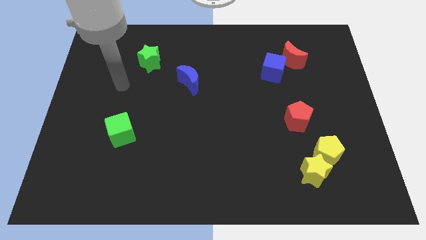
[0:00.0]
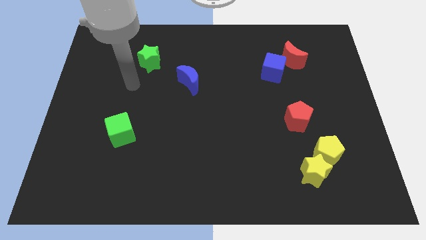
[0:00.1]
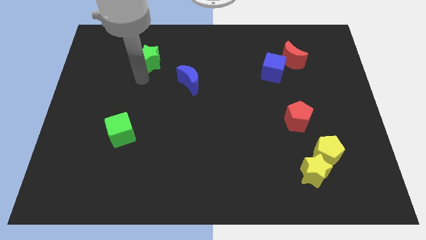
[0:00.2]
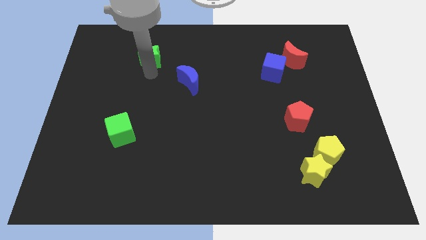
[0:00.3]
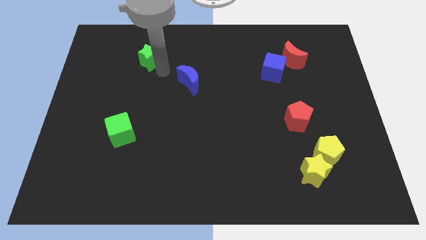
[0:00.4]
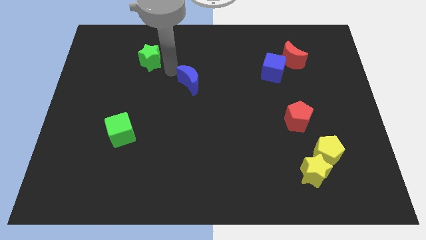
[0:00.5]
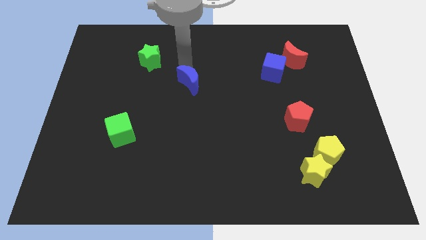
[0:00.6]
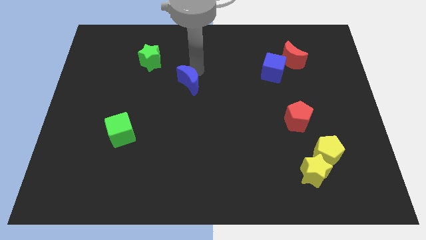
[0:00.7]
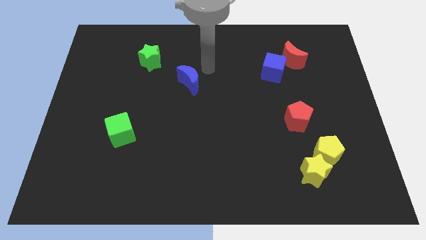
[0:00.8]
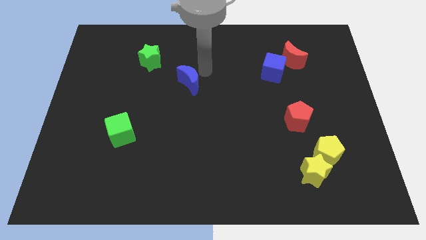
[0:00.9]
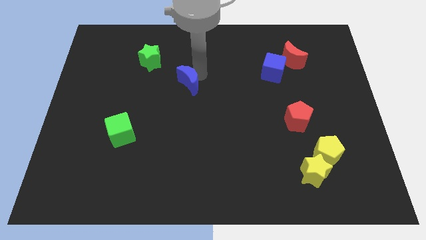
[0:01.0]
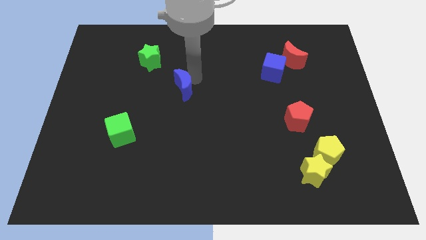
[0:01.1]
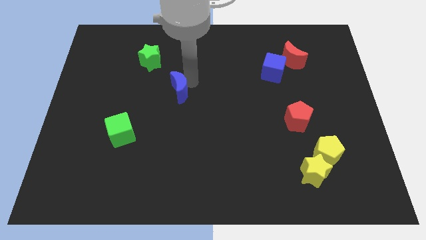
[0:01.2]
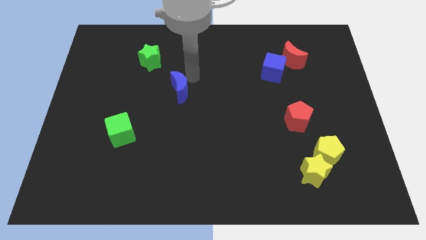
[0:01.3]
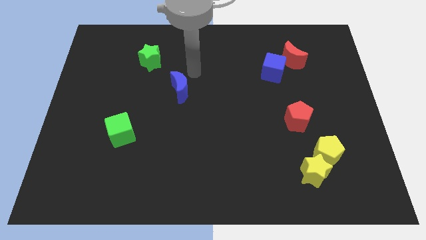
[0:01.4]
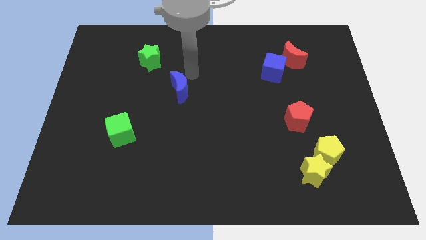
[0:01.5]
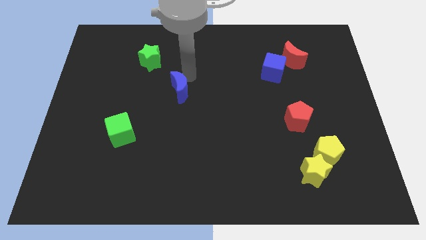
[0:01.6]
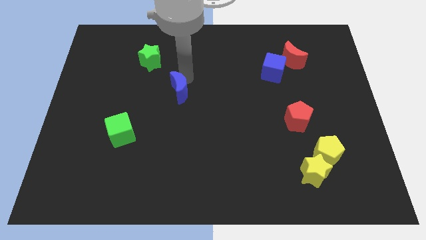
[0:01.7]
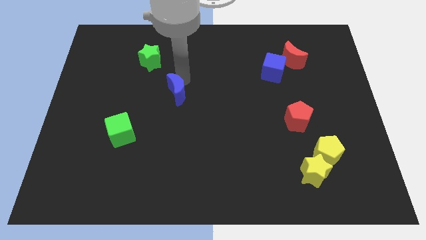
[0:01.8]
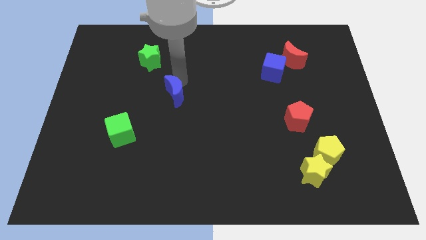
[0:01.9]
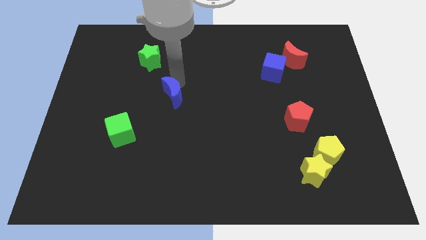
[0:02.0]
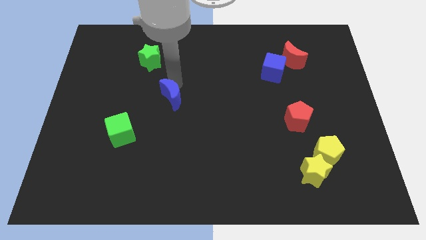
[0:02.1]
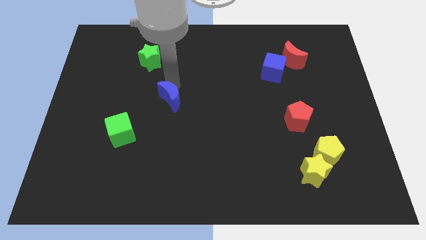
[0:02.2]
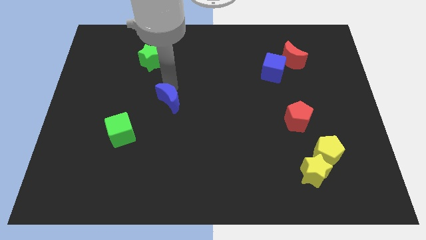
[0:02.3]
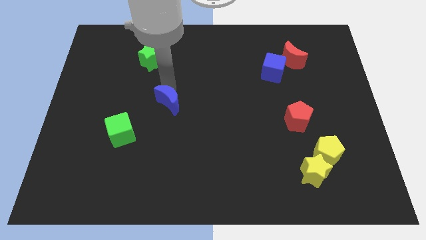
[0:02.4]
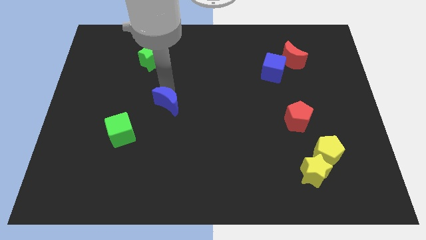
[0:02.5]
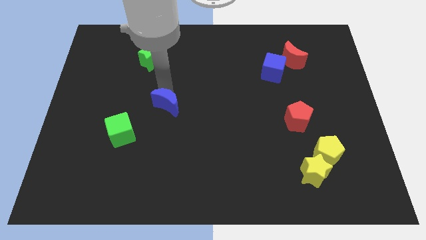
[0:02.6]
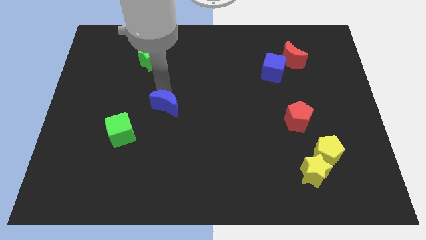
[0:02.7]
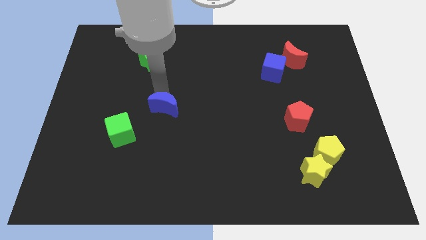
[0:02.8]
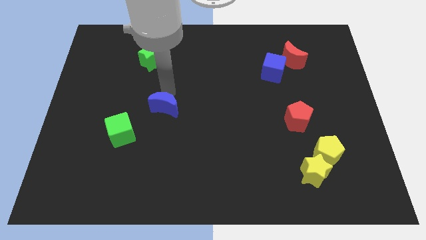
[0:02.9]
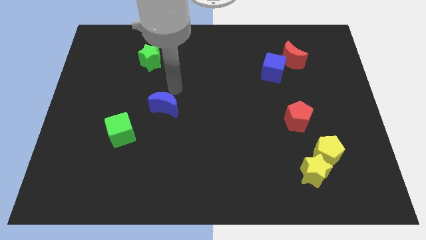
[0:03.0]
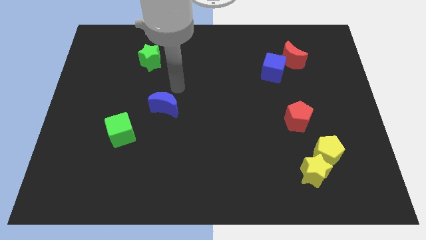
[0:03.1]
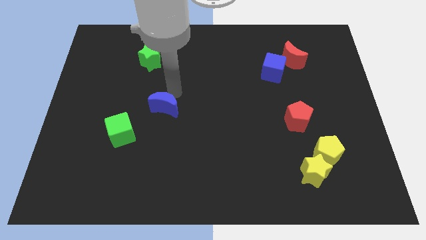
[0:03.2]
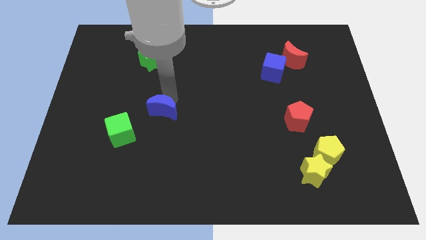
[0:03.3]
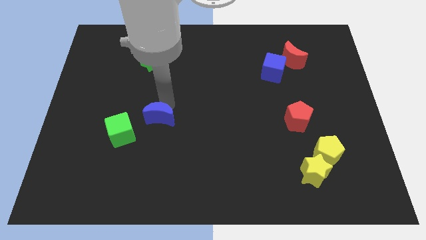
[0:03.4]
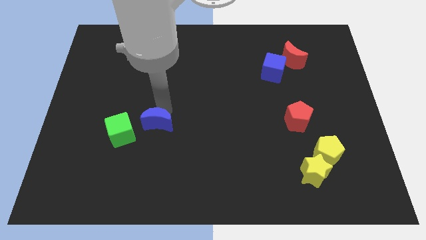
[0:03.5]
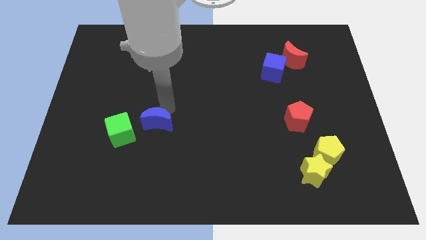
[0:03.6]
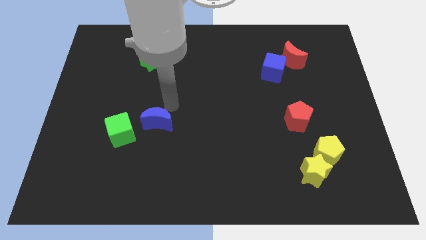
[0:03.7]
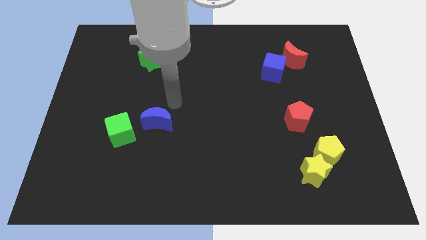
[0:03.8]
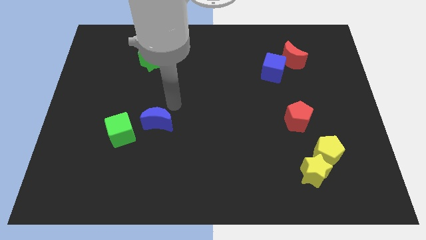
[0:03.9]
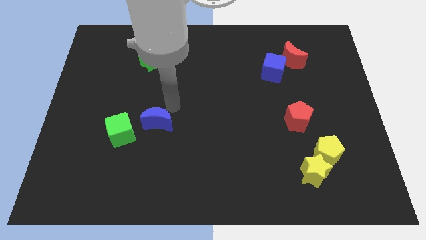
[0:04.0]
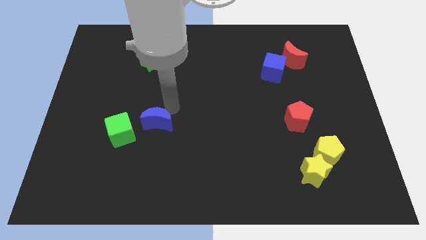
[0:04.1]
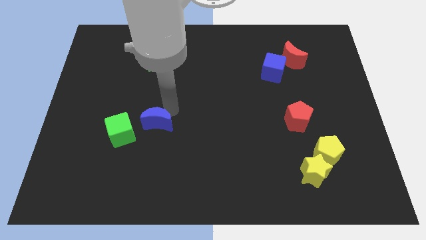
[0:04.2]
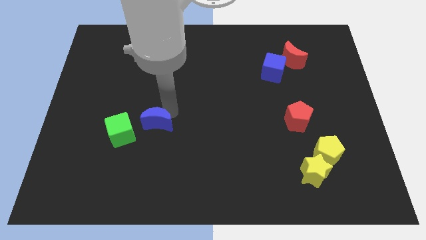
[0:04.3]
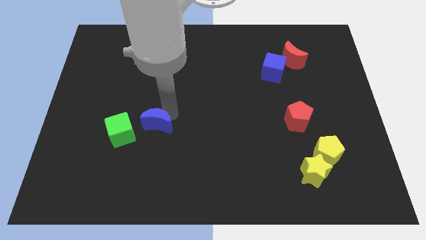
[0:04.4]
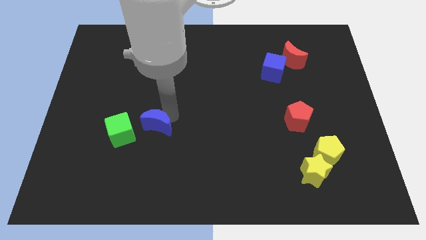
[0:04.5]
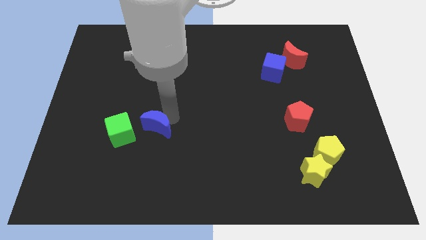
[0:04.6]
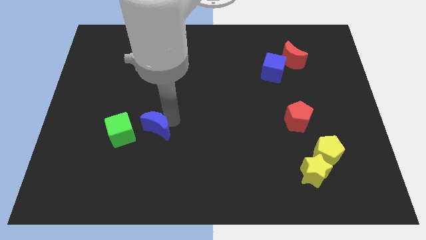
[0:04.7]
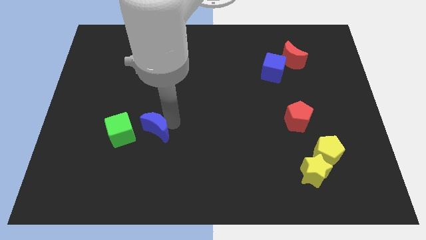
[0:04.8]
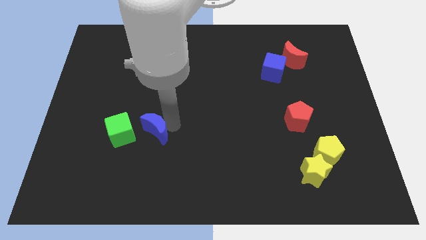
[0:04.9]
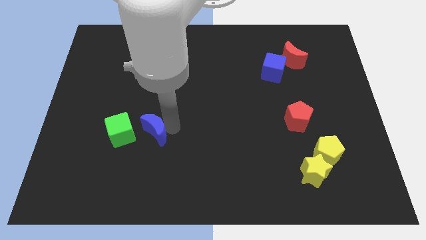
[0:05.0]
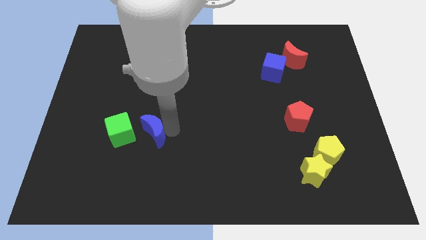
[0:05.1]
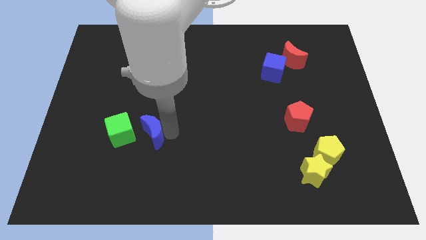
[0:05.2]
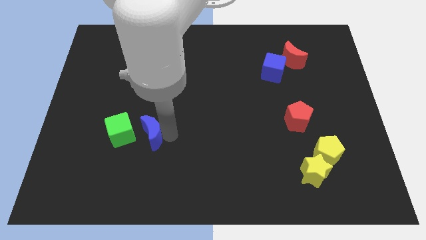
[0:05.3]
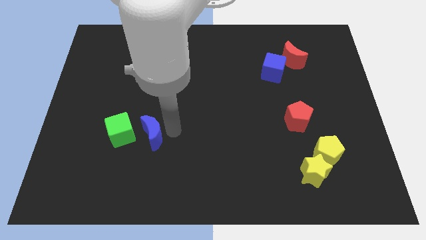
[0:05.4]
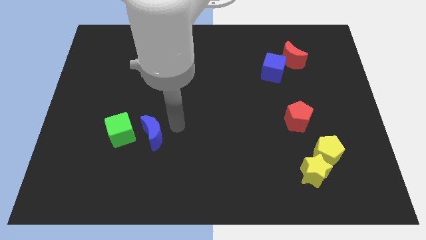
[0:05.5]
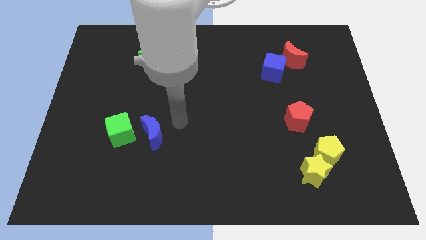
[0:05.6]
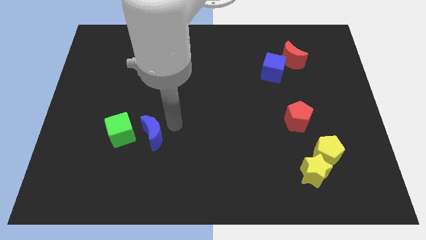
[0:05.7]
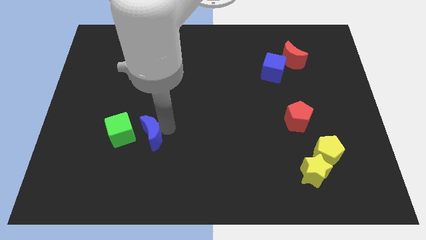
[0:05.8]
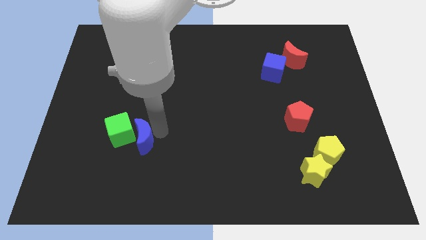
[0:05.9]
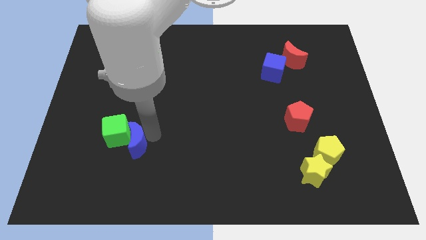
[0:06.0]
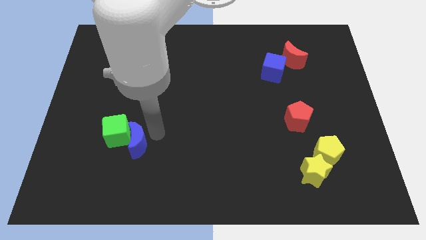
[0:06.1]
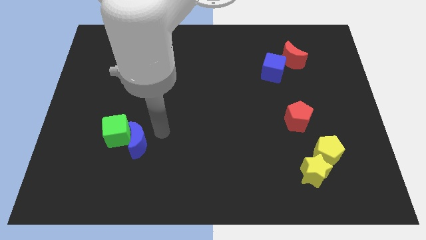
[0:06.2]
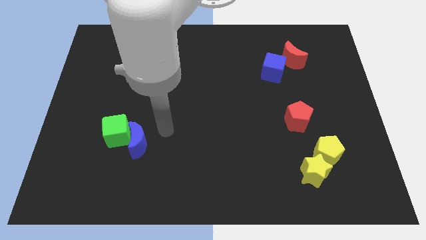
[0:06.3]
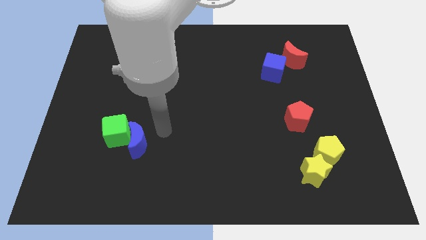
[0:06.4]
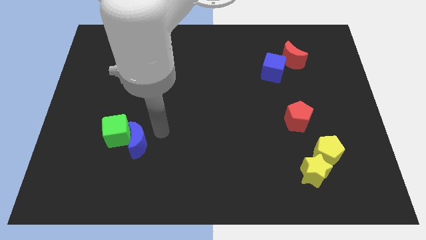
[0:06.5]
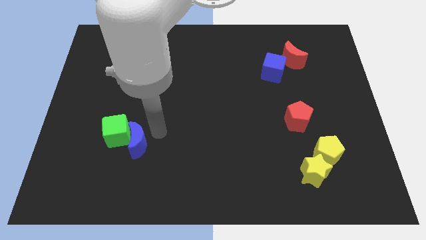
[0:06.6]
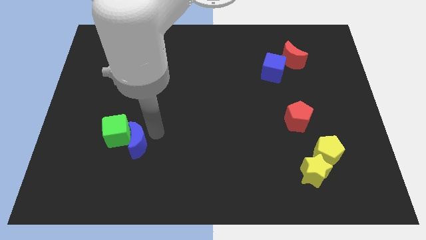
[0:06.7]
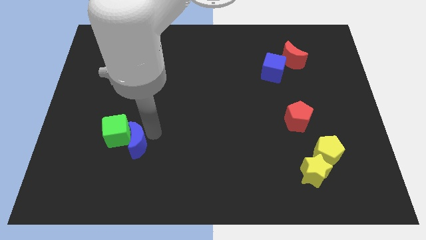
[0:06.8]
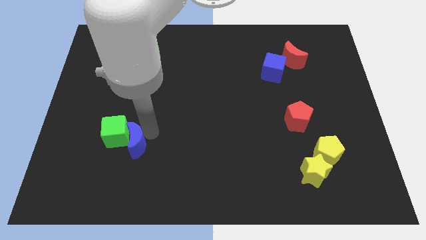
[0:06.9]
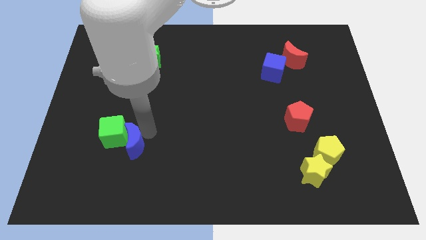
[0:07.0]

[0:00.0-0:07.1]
move the blue moon diagonally downwards and to the left

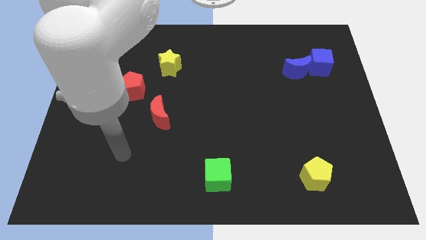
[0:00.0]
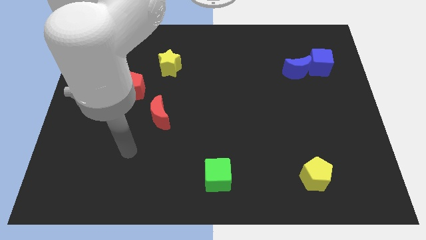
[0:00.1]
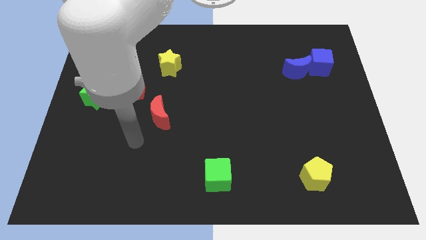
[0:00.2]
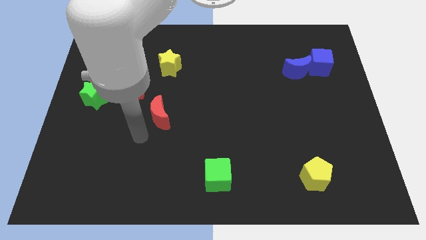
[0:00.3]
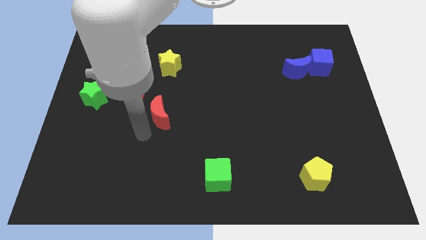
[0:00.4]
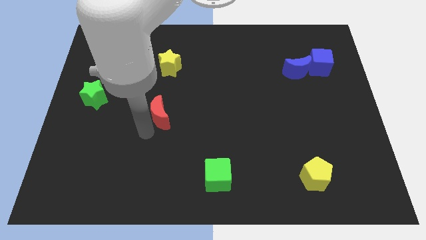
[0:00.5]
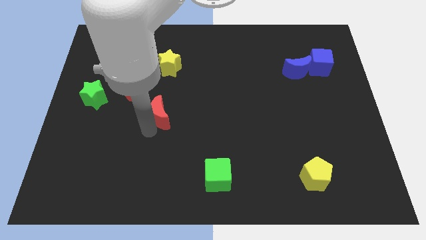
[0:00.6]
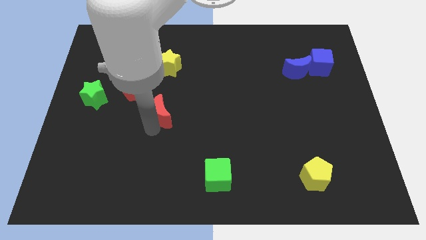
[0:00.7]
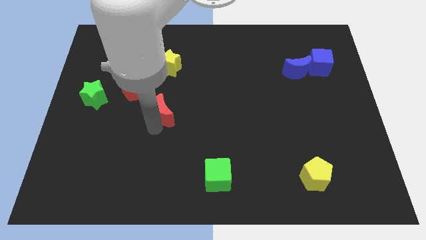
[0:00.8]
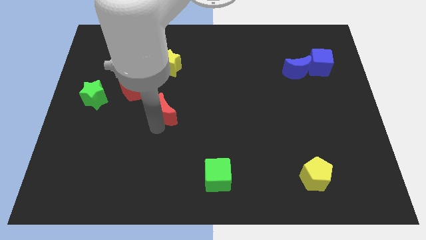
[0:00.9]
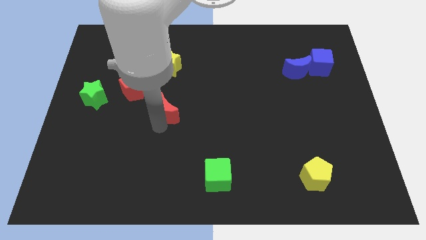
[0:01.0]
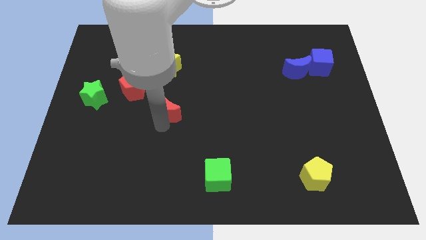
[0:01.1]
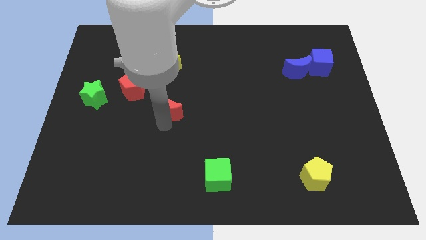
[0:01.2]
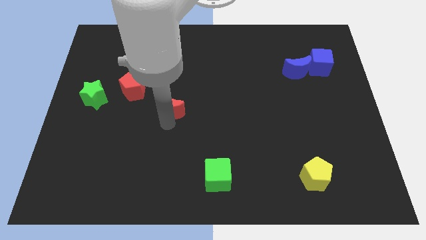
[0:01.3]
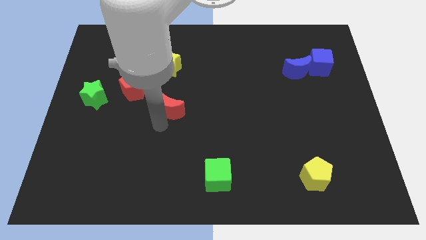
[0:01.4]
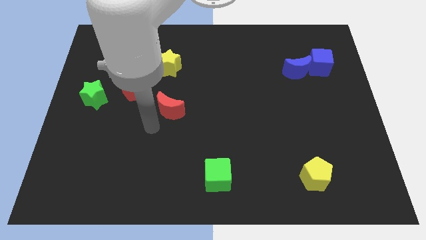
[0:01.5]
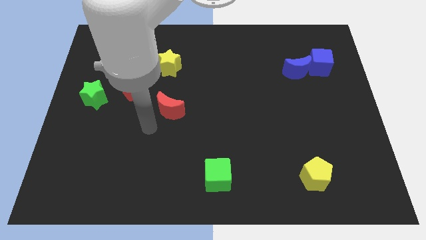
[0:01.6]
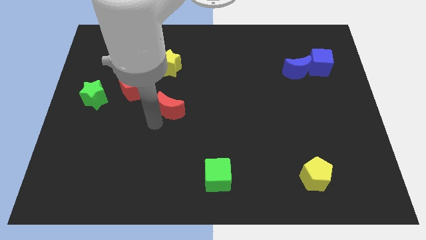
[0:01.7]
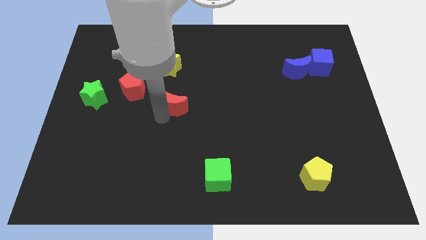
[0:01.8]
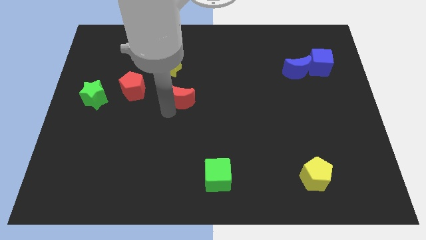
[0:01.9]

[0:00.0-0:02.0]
slightly slide the red moon upwards and then right
